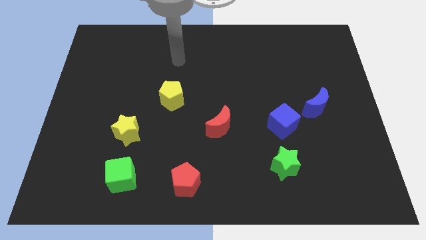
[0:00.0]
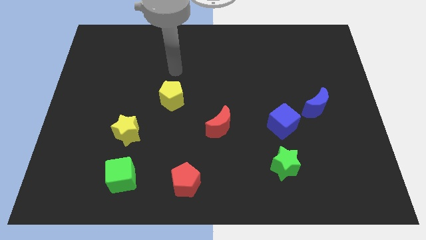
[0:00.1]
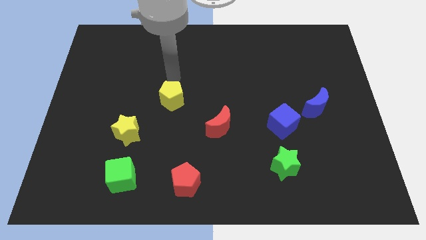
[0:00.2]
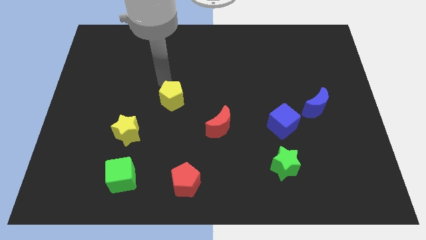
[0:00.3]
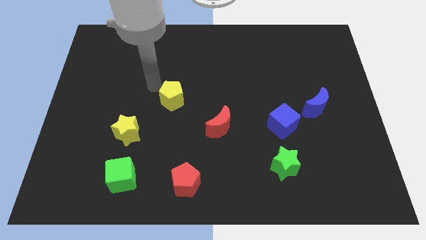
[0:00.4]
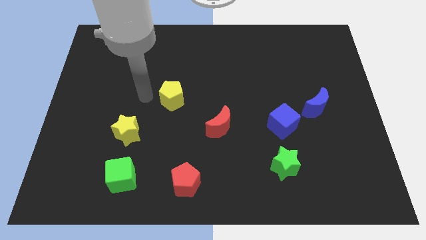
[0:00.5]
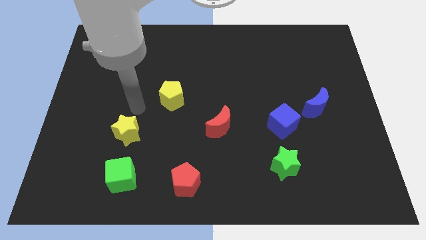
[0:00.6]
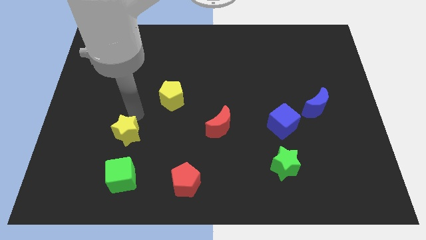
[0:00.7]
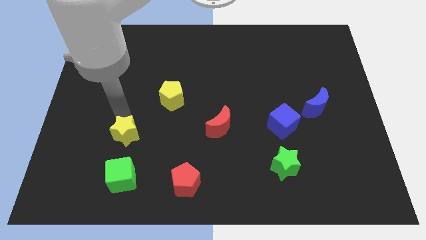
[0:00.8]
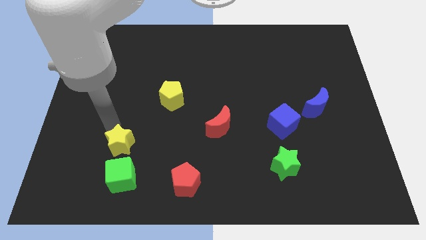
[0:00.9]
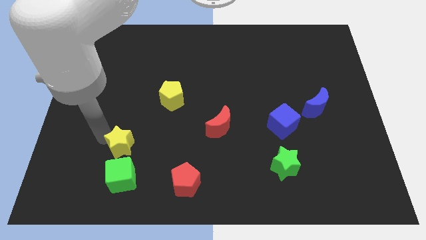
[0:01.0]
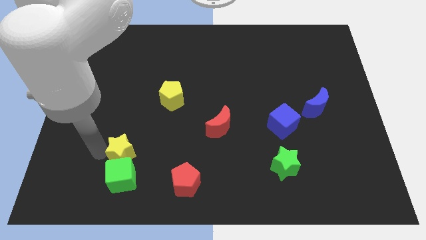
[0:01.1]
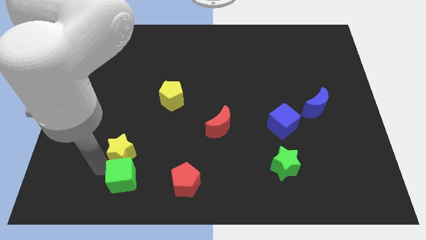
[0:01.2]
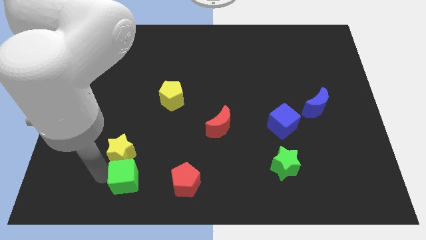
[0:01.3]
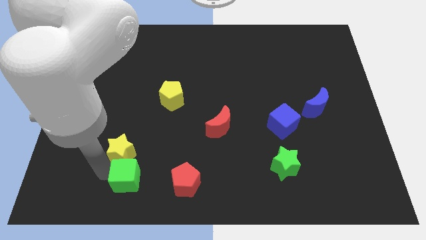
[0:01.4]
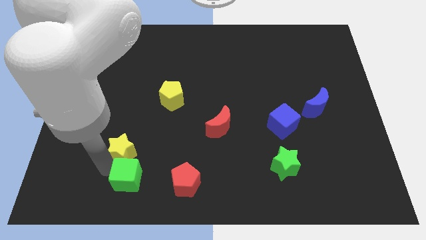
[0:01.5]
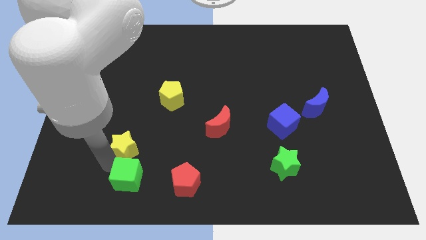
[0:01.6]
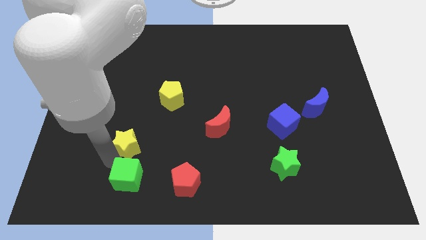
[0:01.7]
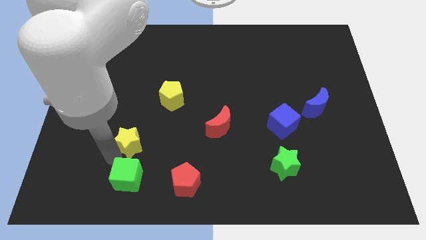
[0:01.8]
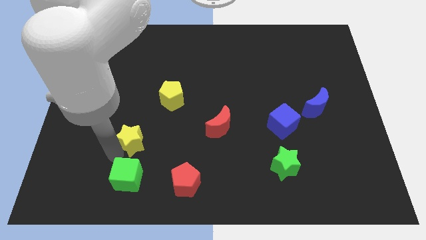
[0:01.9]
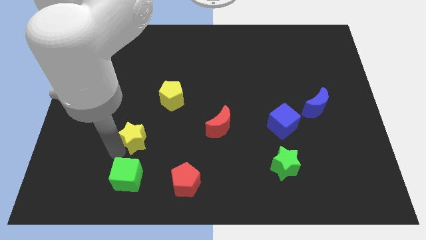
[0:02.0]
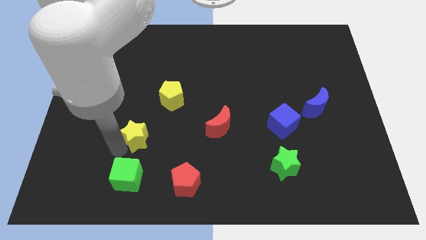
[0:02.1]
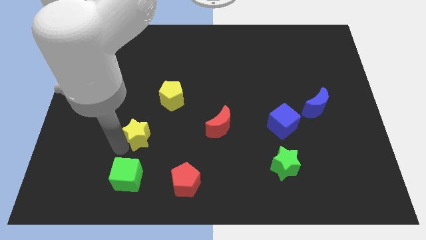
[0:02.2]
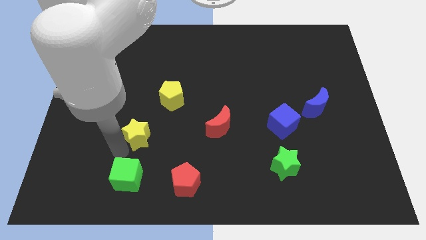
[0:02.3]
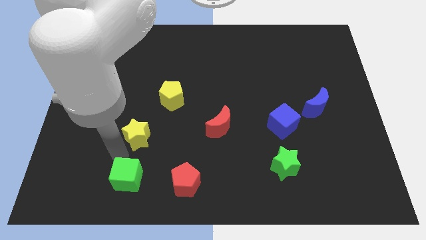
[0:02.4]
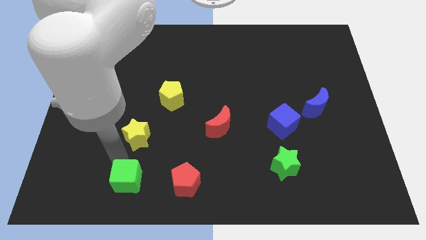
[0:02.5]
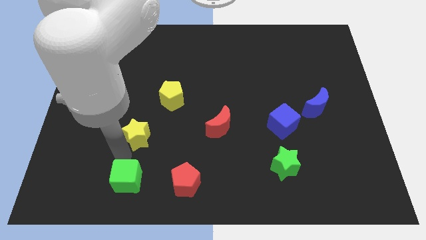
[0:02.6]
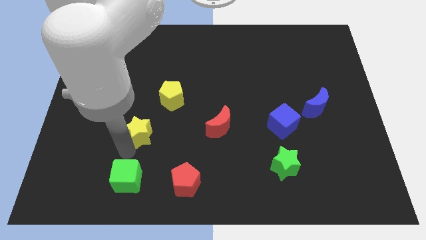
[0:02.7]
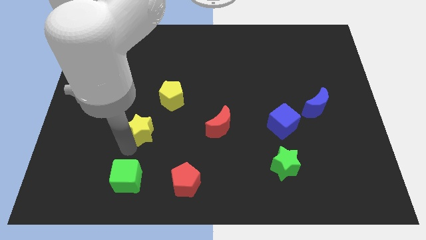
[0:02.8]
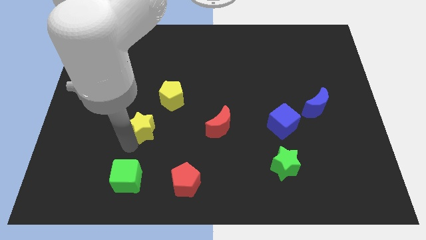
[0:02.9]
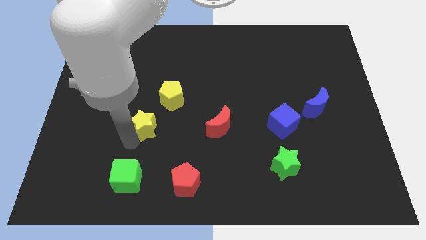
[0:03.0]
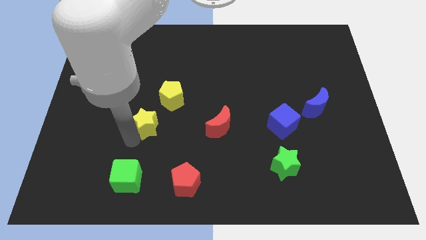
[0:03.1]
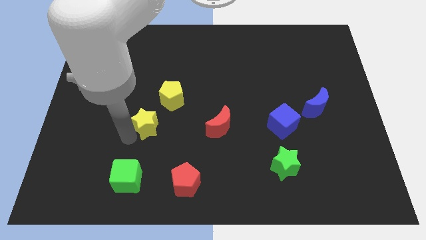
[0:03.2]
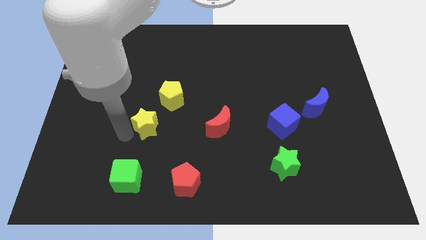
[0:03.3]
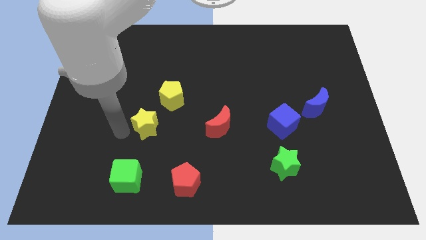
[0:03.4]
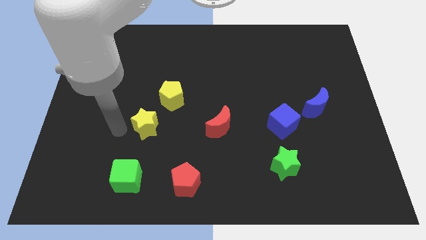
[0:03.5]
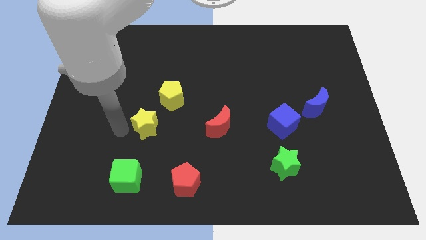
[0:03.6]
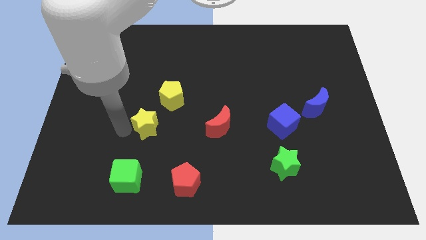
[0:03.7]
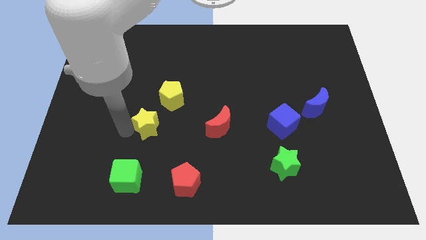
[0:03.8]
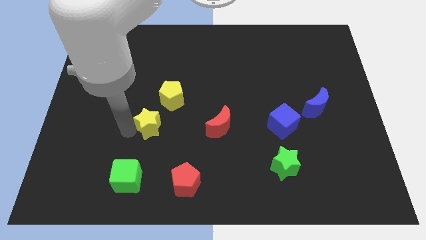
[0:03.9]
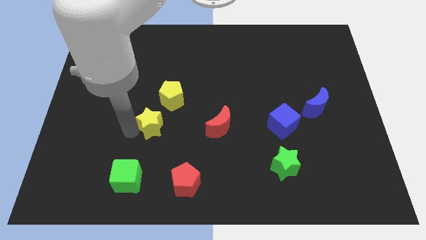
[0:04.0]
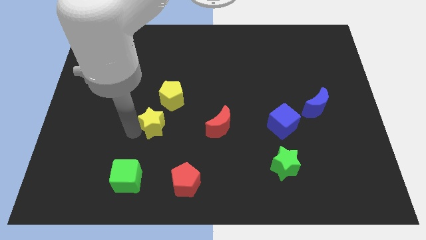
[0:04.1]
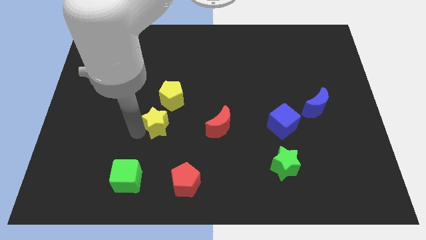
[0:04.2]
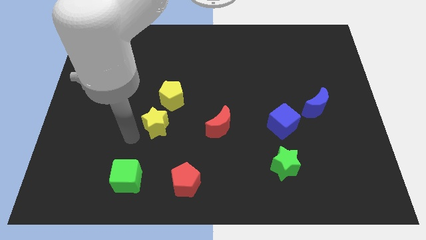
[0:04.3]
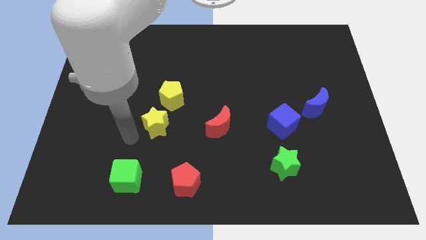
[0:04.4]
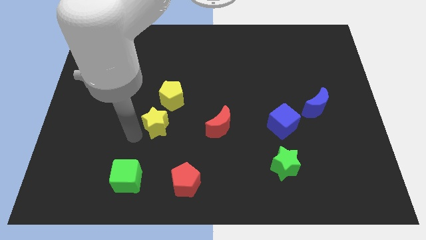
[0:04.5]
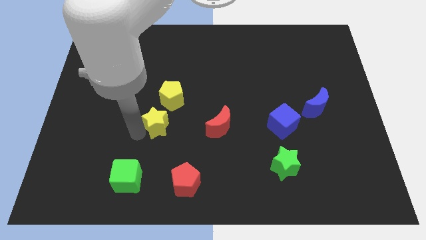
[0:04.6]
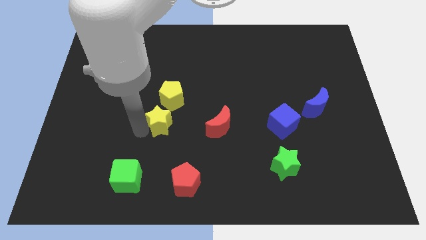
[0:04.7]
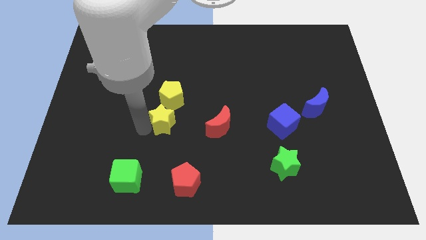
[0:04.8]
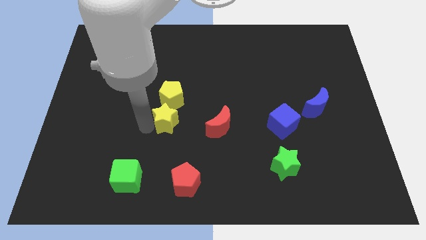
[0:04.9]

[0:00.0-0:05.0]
push the yellow star to the center of the board

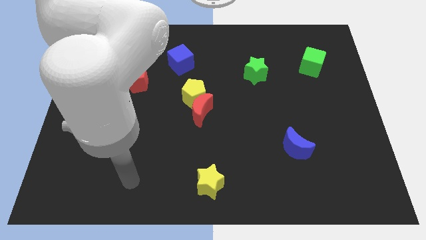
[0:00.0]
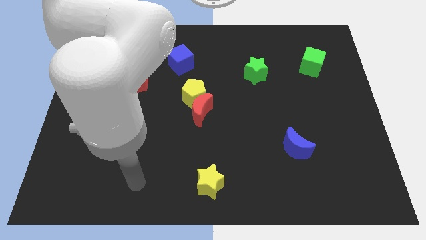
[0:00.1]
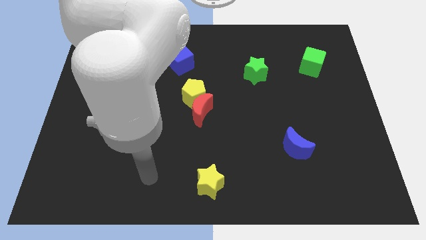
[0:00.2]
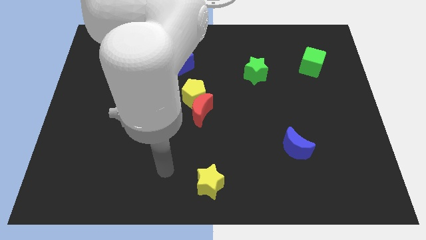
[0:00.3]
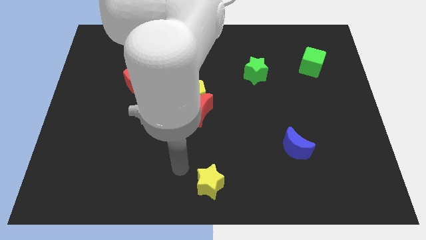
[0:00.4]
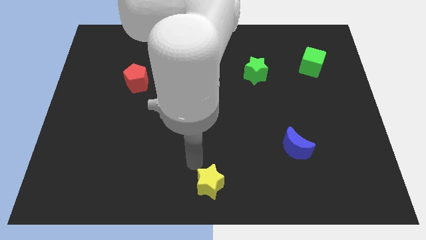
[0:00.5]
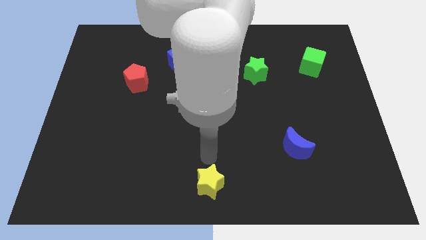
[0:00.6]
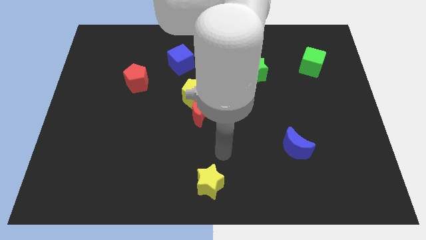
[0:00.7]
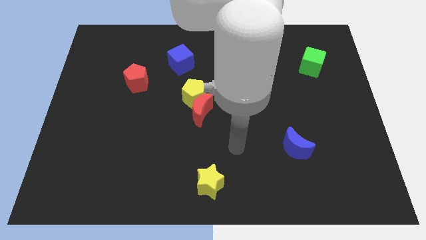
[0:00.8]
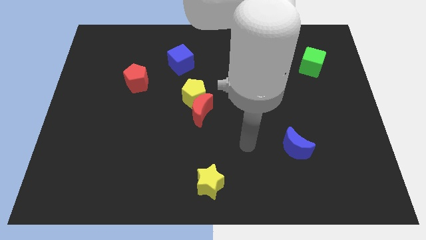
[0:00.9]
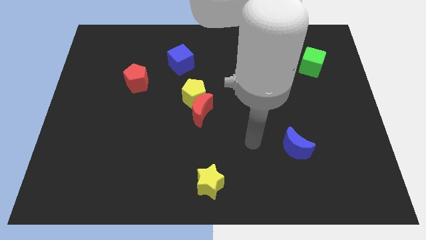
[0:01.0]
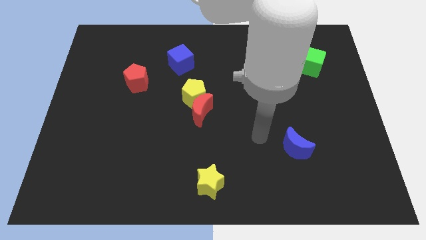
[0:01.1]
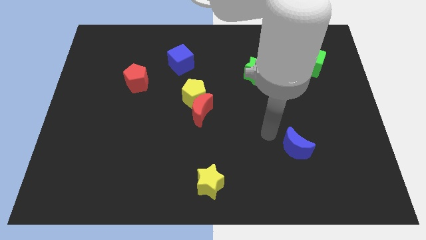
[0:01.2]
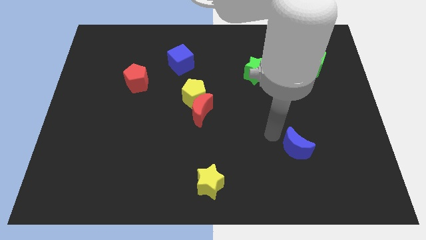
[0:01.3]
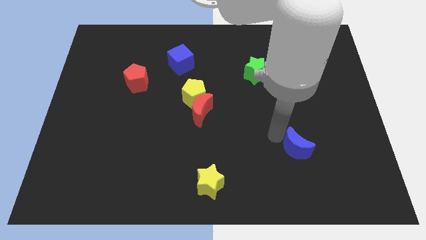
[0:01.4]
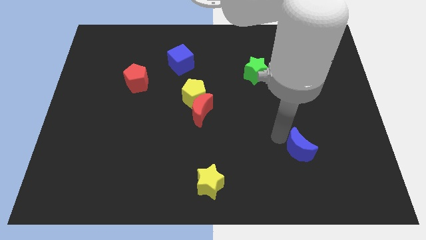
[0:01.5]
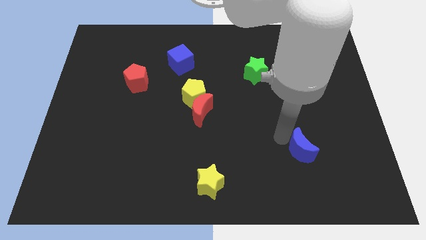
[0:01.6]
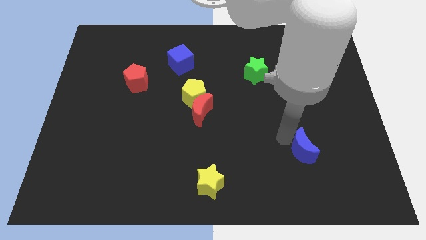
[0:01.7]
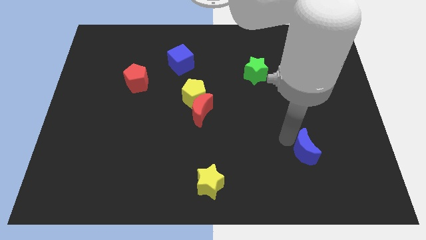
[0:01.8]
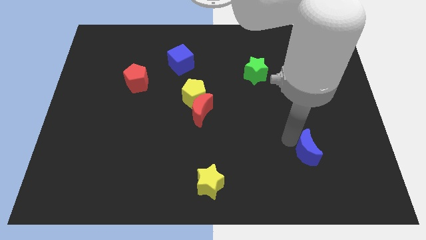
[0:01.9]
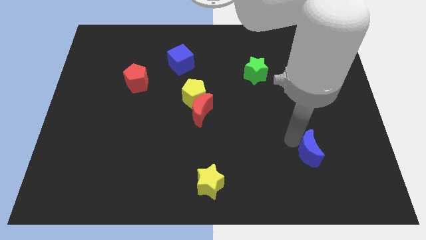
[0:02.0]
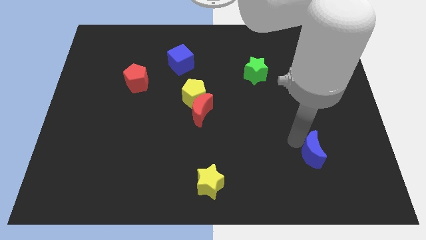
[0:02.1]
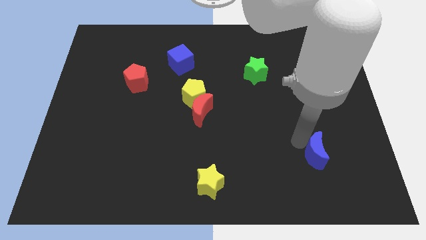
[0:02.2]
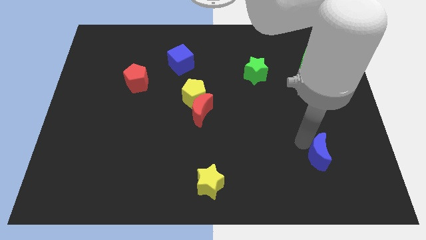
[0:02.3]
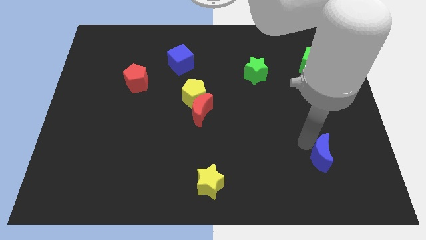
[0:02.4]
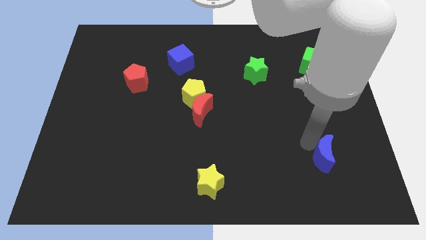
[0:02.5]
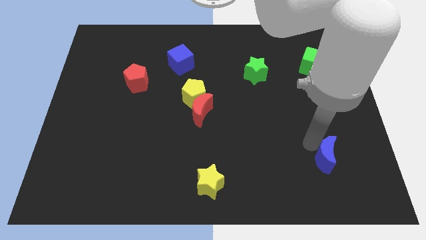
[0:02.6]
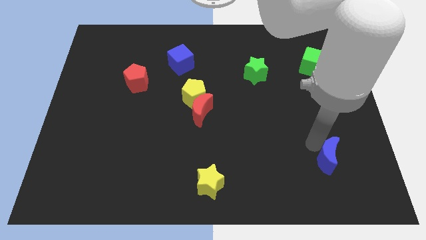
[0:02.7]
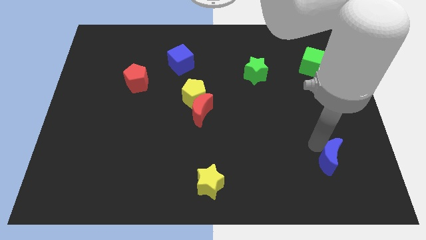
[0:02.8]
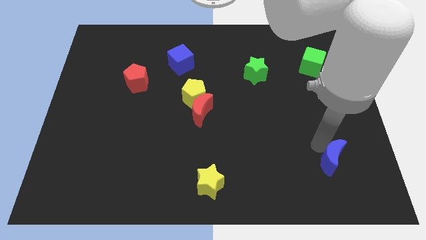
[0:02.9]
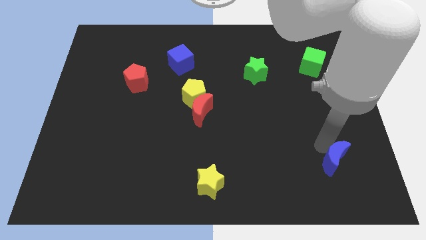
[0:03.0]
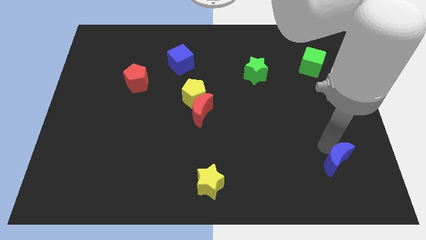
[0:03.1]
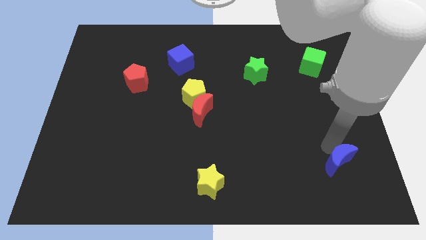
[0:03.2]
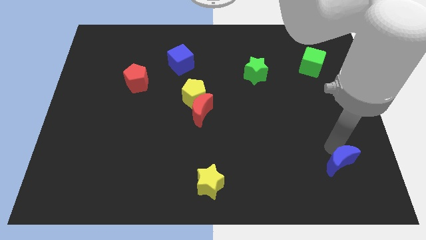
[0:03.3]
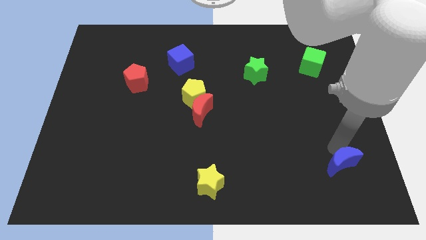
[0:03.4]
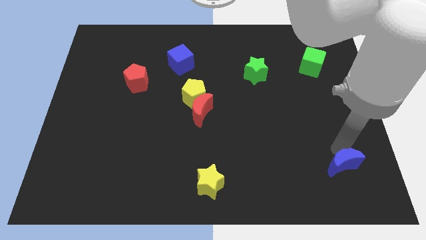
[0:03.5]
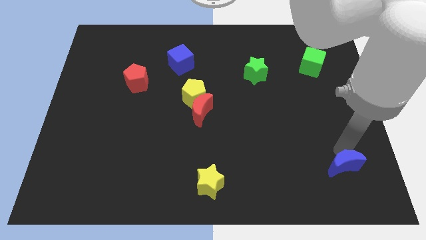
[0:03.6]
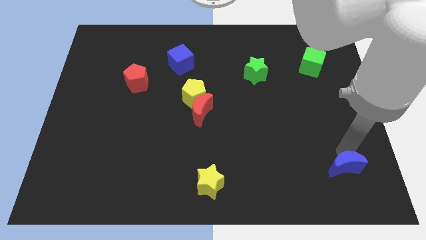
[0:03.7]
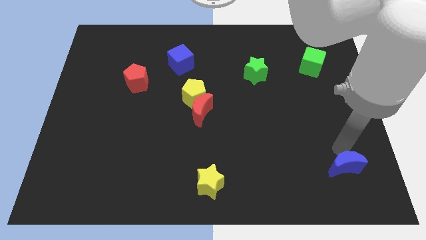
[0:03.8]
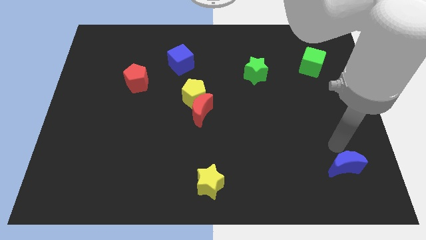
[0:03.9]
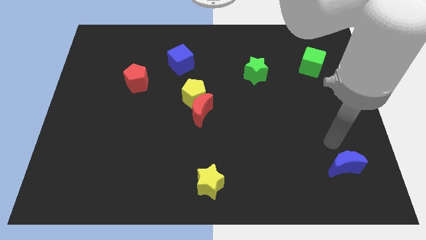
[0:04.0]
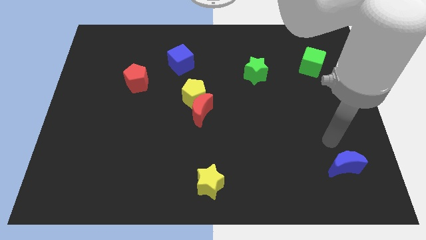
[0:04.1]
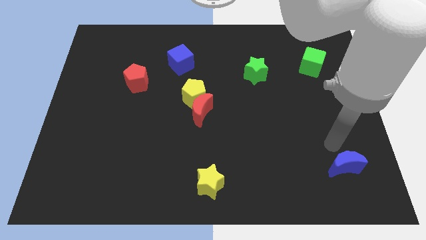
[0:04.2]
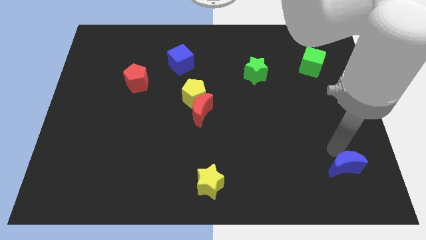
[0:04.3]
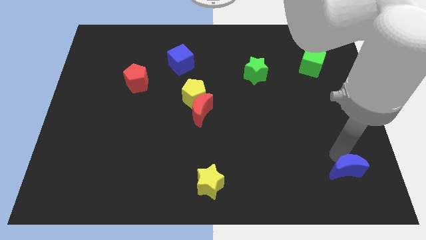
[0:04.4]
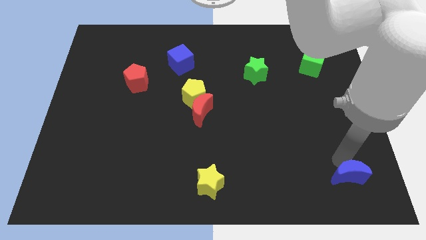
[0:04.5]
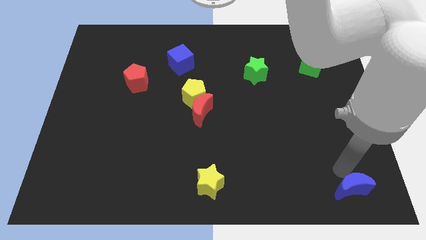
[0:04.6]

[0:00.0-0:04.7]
push the blue moon to the lower right corner
